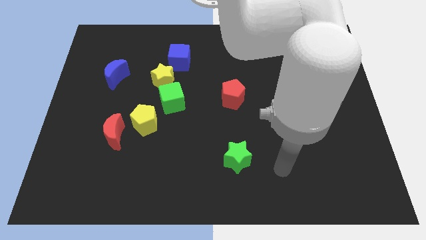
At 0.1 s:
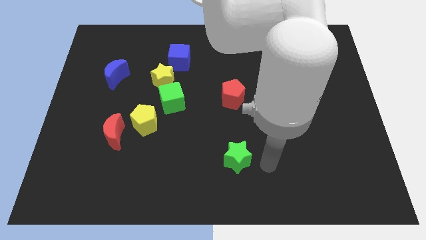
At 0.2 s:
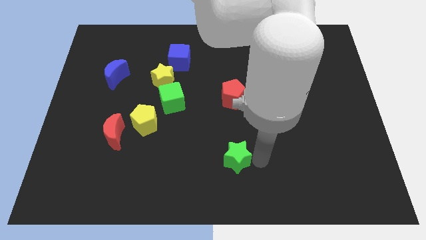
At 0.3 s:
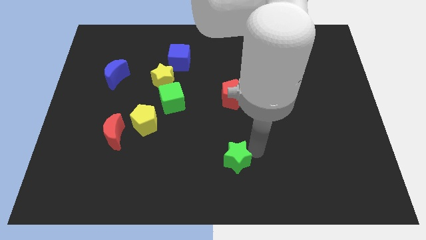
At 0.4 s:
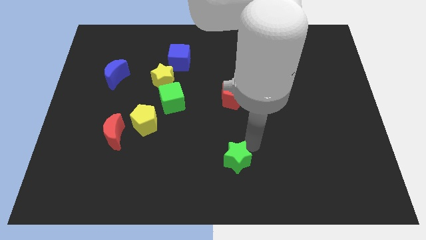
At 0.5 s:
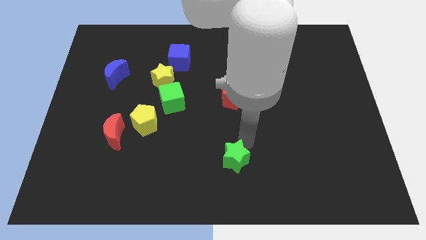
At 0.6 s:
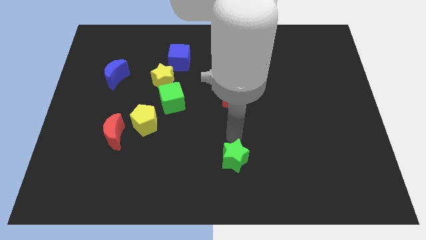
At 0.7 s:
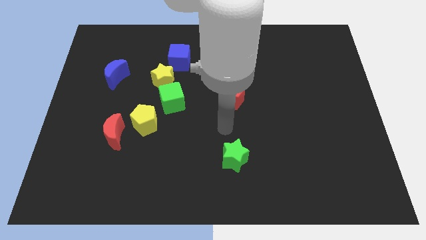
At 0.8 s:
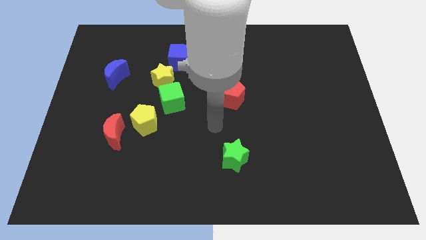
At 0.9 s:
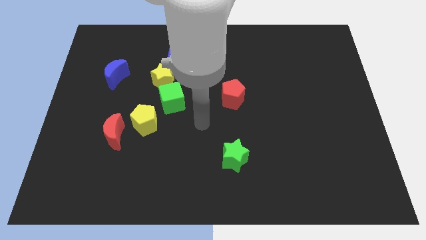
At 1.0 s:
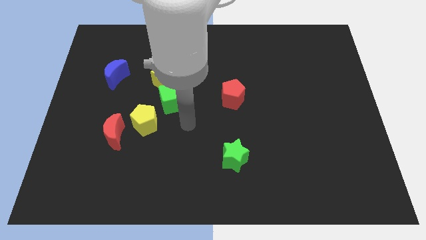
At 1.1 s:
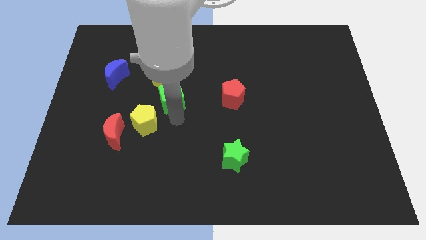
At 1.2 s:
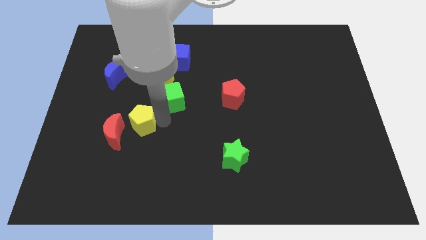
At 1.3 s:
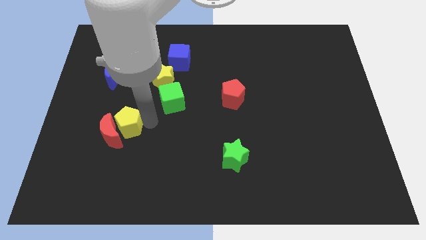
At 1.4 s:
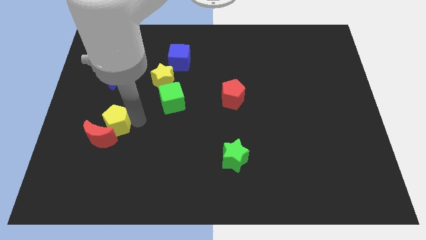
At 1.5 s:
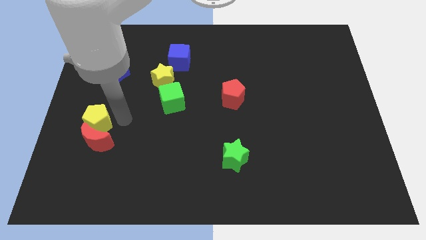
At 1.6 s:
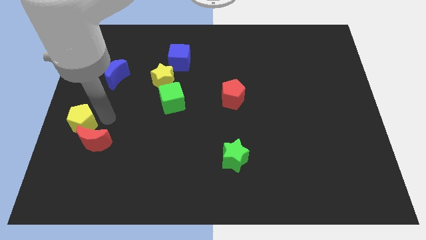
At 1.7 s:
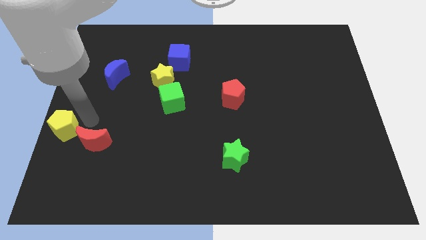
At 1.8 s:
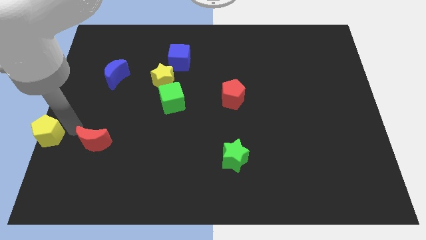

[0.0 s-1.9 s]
pull the red moon apart from the yellow pentagon

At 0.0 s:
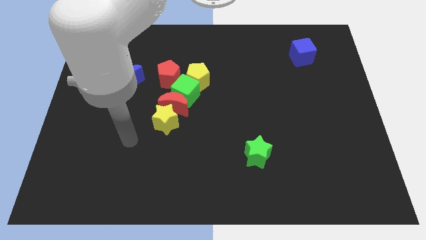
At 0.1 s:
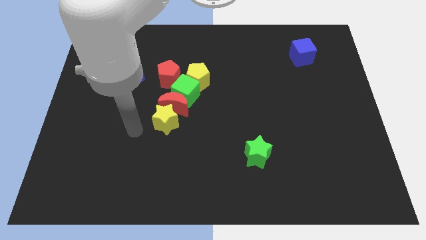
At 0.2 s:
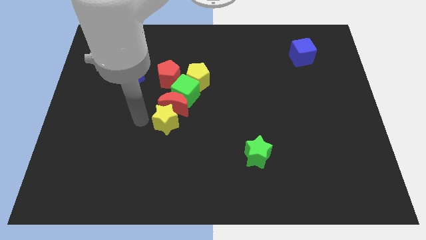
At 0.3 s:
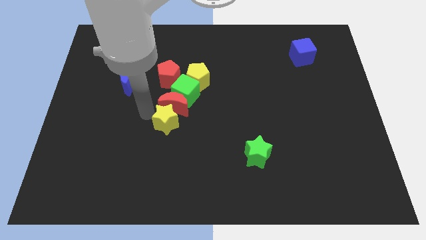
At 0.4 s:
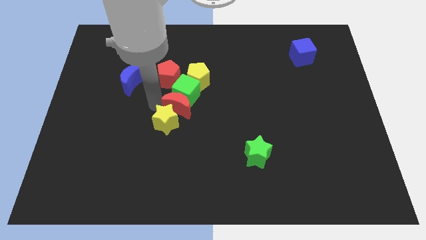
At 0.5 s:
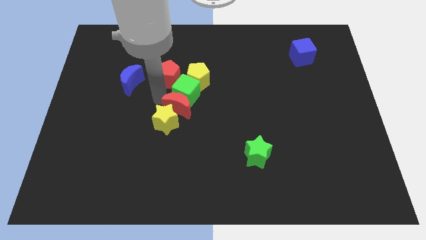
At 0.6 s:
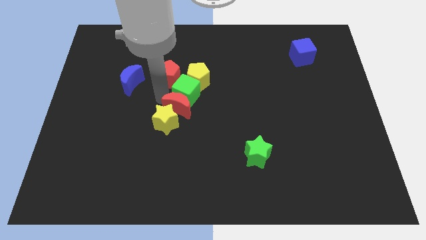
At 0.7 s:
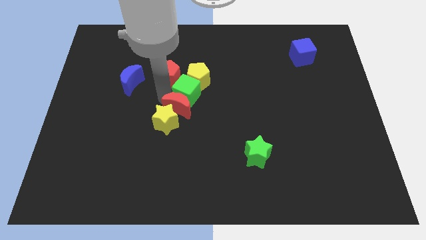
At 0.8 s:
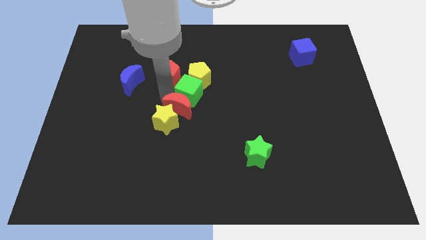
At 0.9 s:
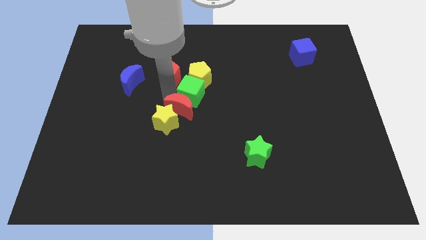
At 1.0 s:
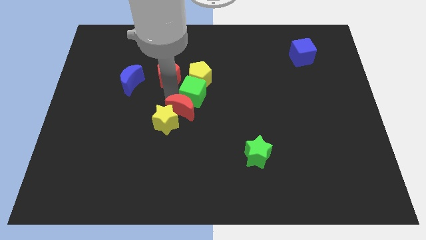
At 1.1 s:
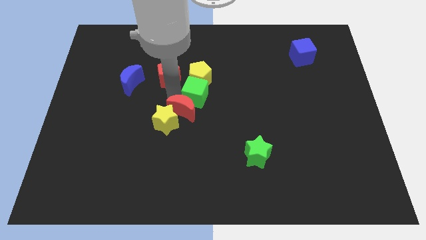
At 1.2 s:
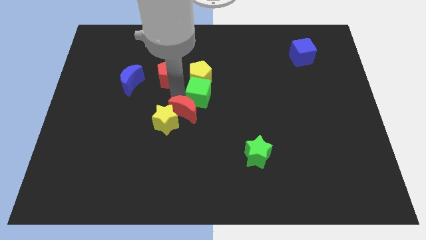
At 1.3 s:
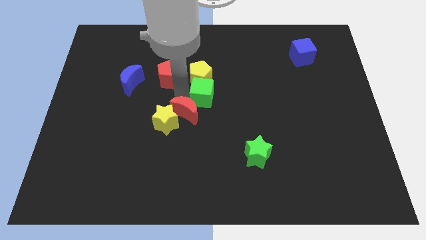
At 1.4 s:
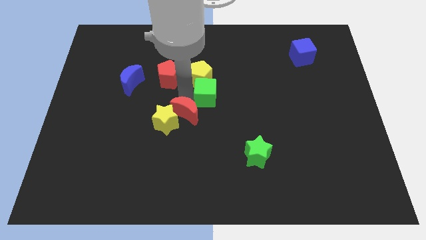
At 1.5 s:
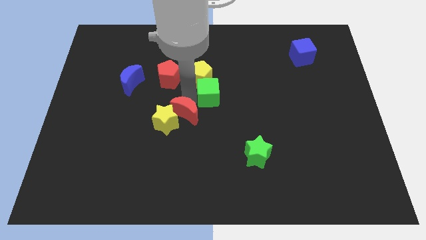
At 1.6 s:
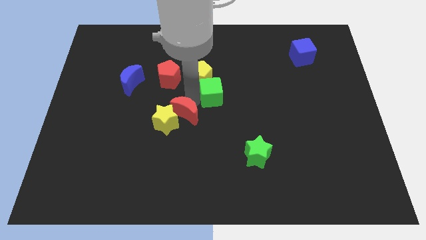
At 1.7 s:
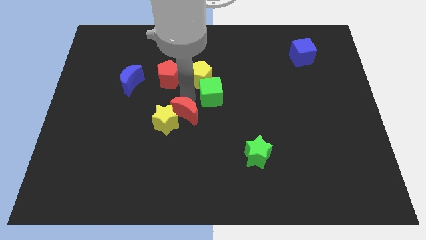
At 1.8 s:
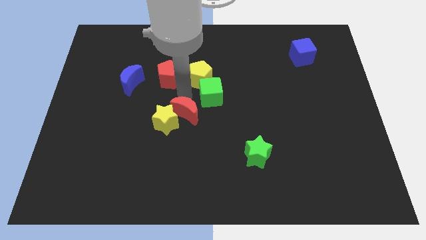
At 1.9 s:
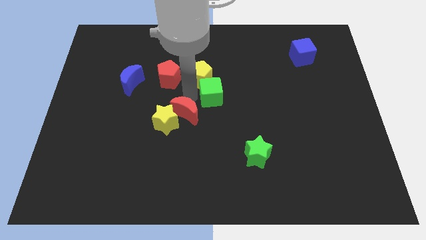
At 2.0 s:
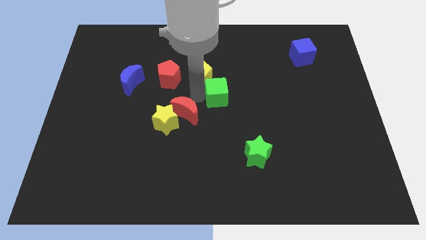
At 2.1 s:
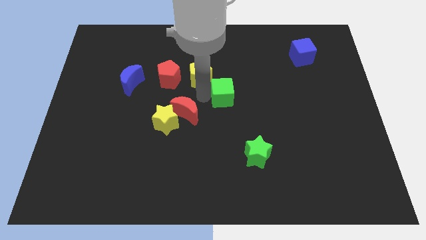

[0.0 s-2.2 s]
move the green cube away from the group

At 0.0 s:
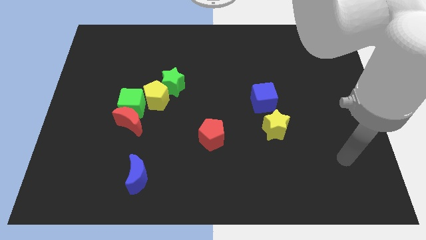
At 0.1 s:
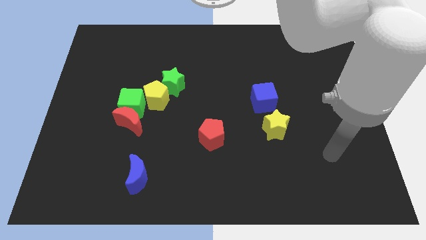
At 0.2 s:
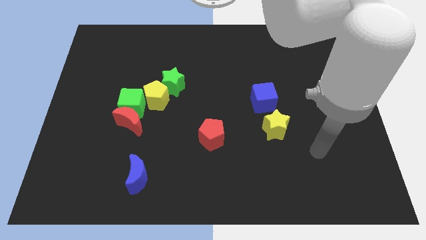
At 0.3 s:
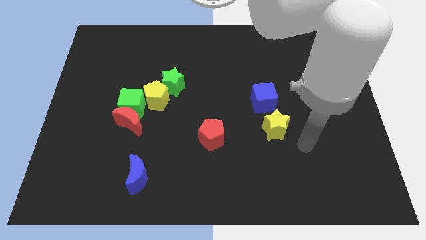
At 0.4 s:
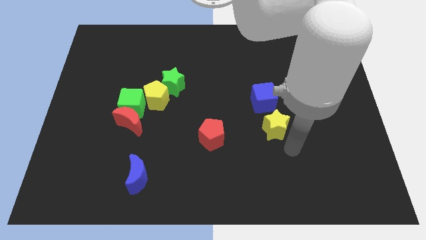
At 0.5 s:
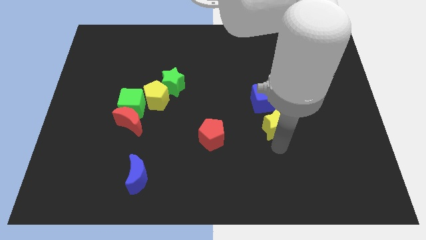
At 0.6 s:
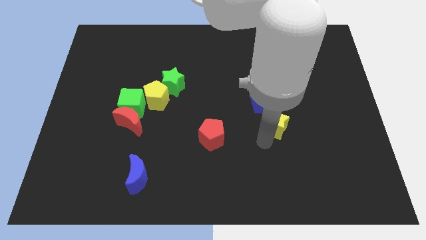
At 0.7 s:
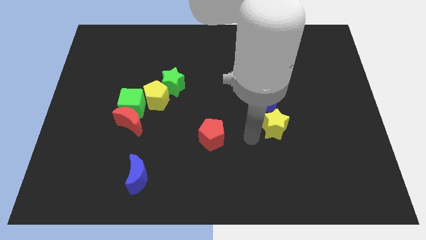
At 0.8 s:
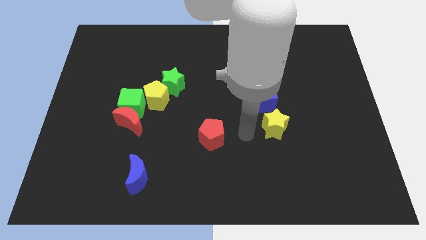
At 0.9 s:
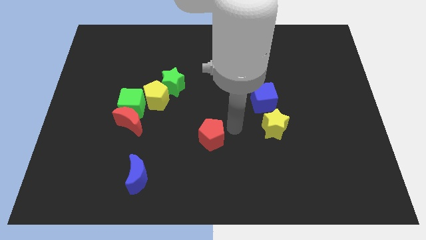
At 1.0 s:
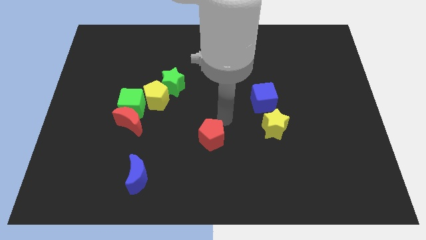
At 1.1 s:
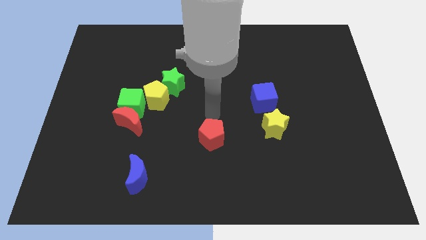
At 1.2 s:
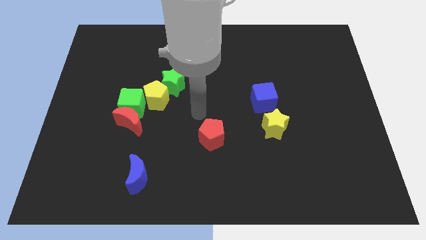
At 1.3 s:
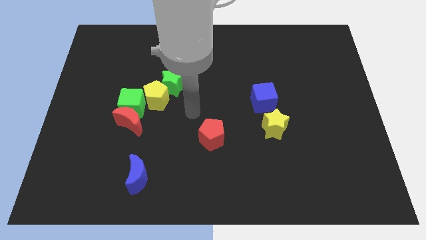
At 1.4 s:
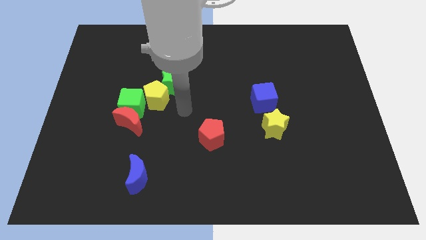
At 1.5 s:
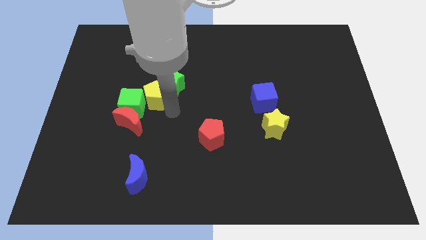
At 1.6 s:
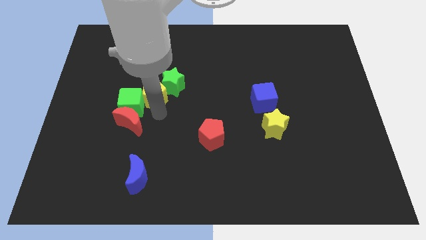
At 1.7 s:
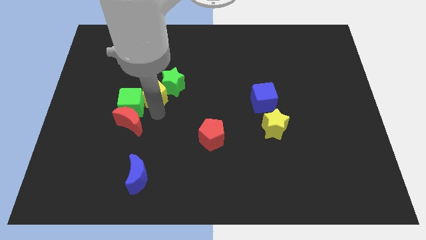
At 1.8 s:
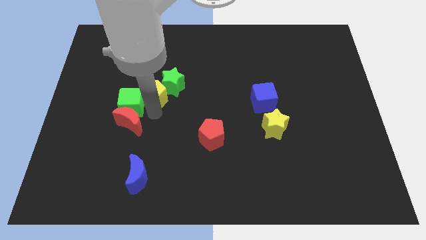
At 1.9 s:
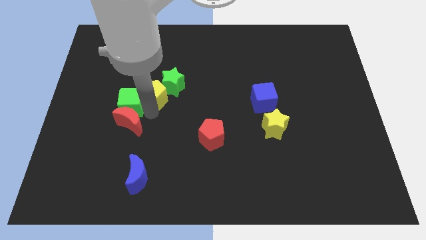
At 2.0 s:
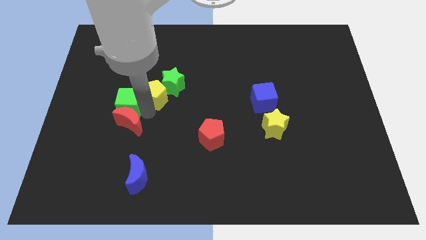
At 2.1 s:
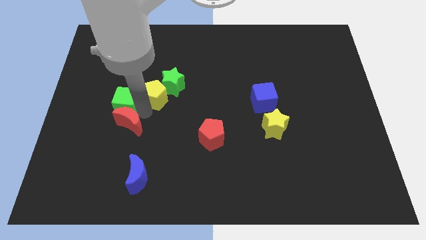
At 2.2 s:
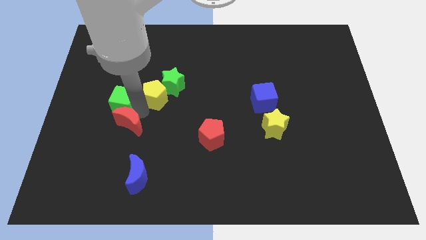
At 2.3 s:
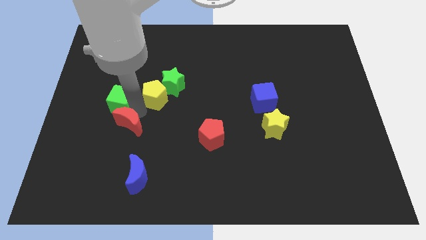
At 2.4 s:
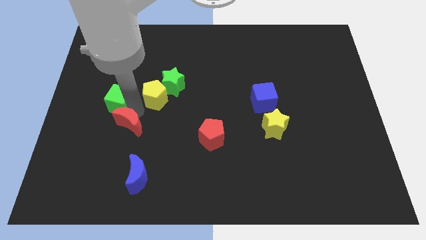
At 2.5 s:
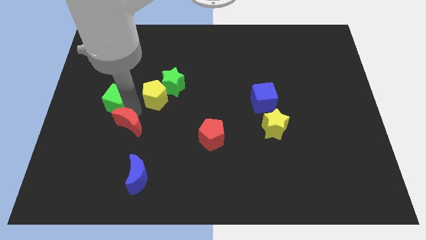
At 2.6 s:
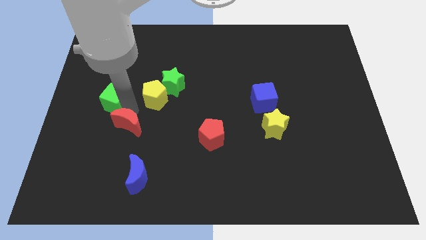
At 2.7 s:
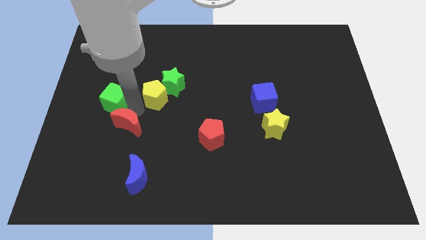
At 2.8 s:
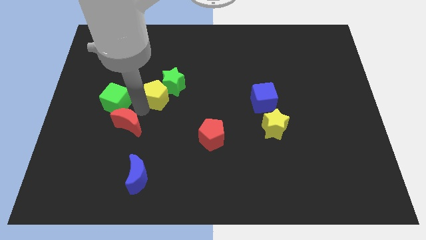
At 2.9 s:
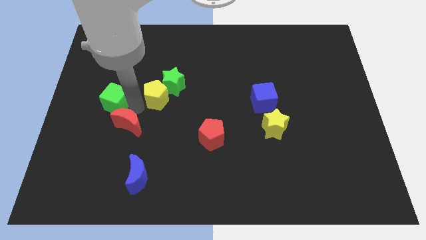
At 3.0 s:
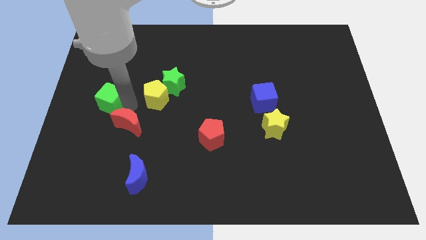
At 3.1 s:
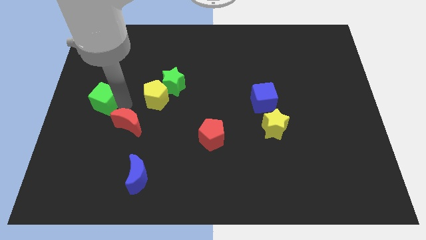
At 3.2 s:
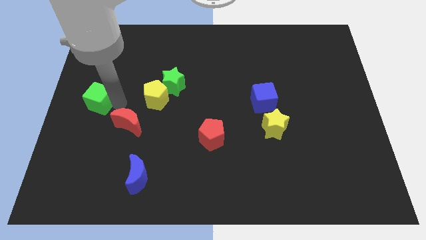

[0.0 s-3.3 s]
move the green cube away from the red moon and yellow pentagon

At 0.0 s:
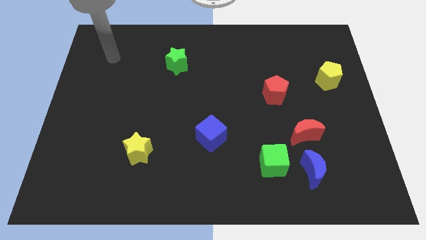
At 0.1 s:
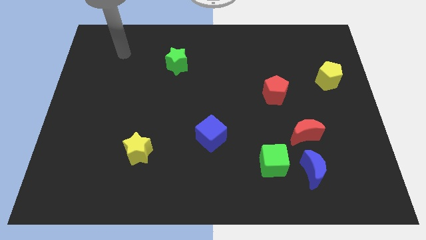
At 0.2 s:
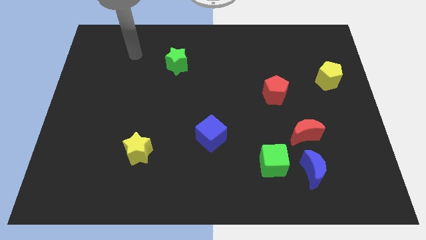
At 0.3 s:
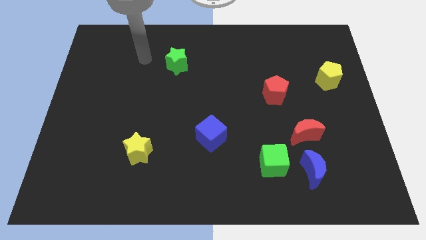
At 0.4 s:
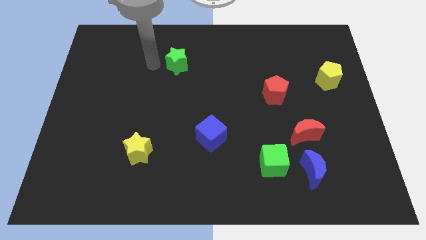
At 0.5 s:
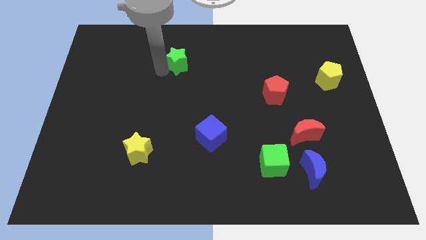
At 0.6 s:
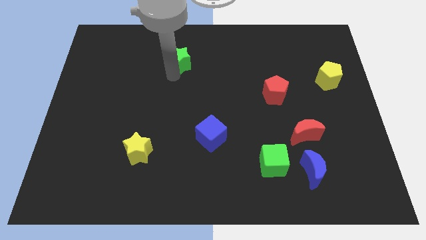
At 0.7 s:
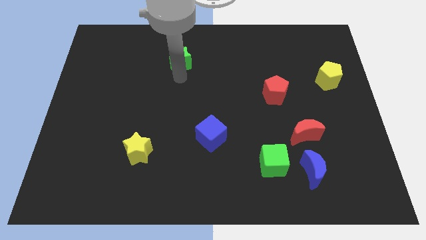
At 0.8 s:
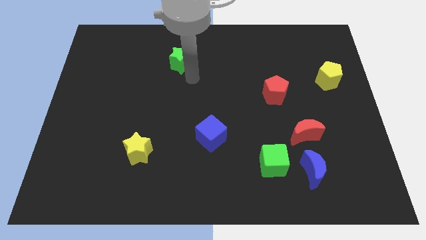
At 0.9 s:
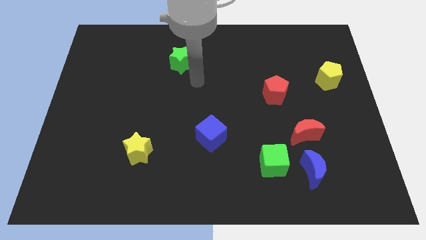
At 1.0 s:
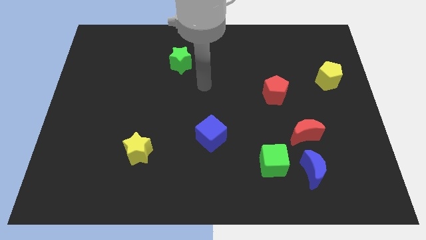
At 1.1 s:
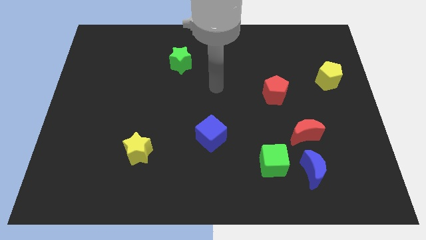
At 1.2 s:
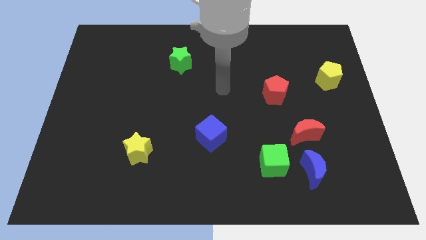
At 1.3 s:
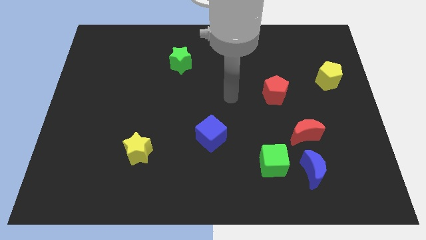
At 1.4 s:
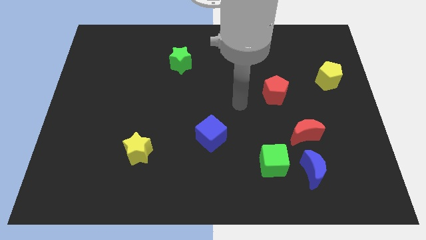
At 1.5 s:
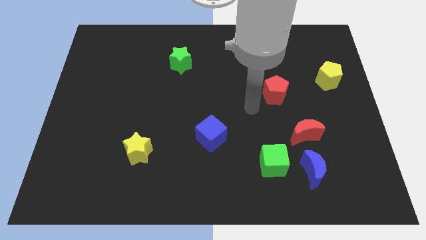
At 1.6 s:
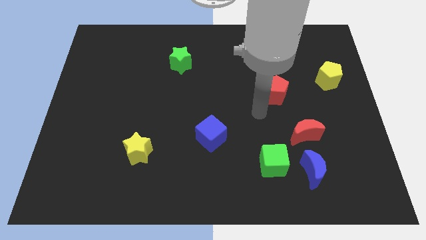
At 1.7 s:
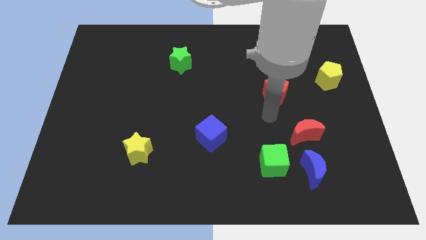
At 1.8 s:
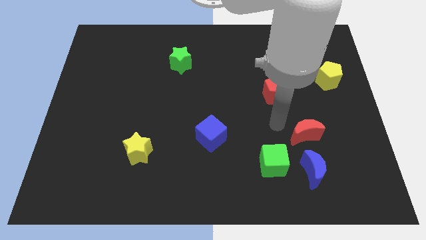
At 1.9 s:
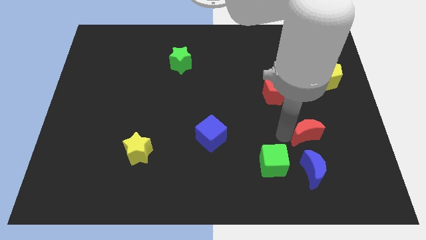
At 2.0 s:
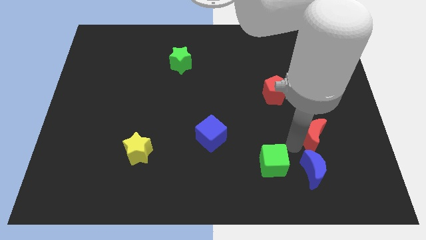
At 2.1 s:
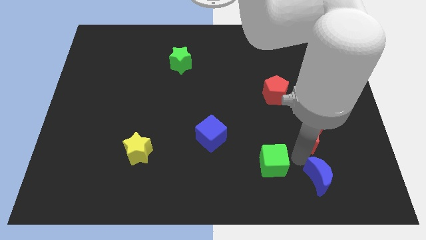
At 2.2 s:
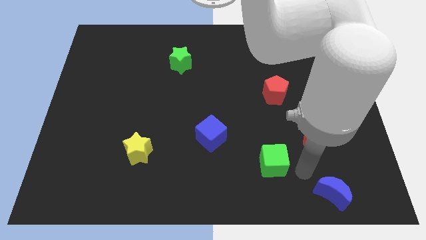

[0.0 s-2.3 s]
move the green cube away from the blue moon
